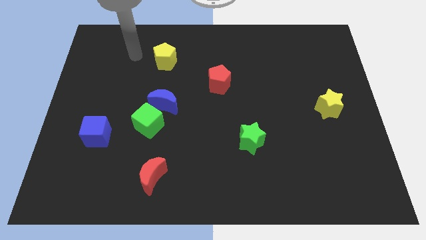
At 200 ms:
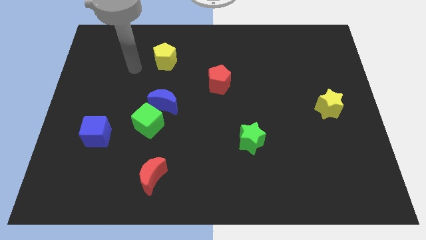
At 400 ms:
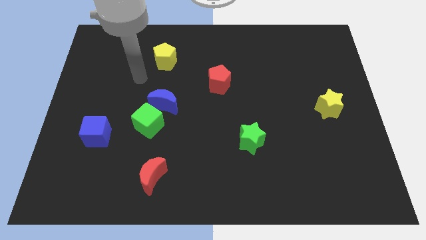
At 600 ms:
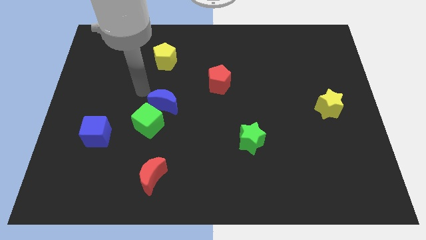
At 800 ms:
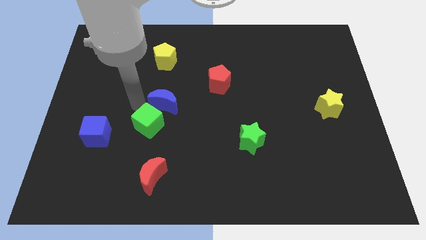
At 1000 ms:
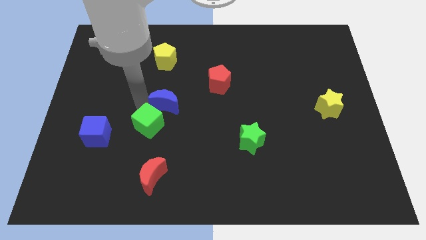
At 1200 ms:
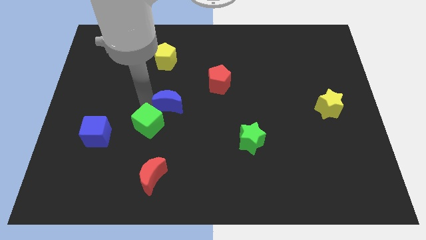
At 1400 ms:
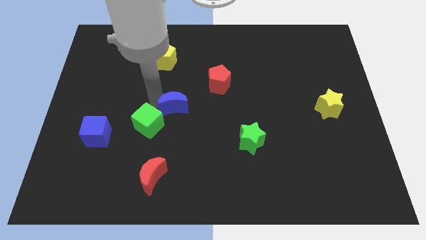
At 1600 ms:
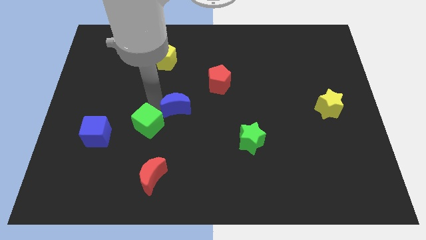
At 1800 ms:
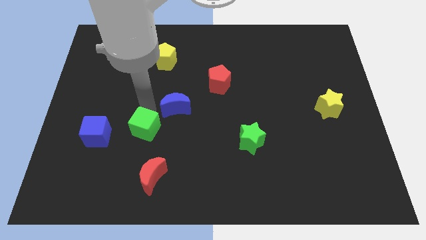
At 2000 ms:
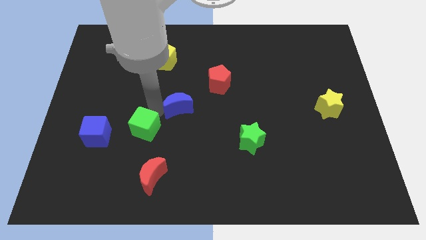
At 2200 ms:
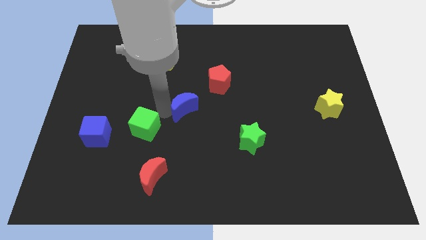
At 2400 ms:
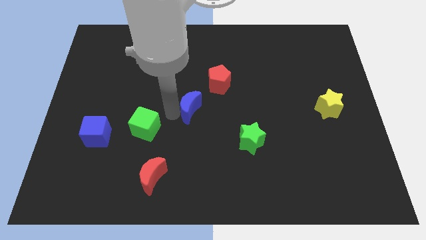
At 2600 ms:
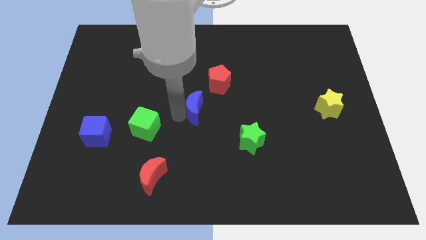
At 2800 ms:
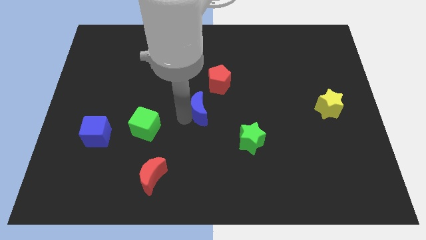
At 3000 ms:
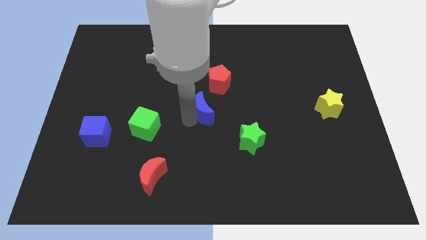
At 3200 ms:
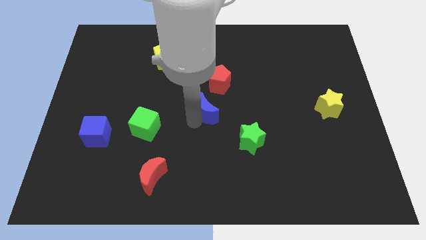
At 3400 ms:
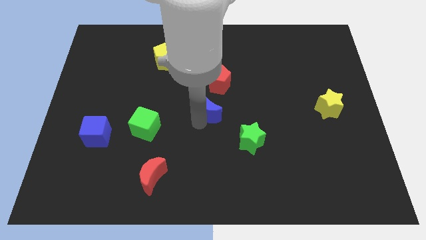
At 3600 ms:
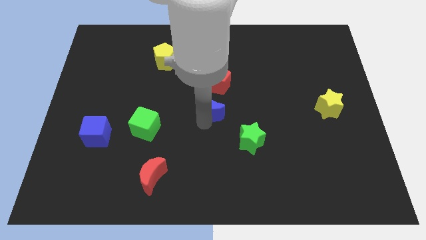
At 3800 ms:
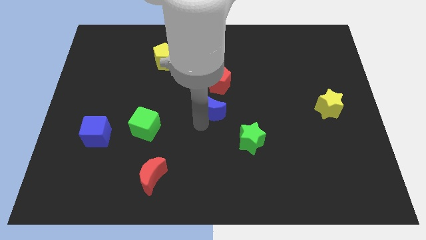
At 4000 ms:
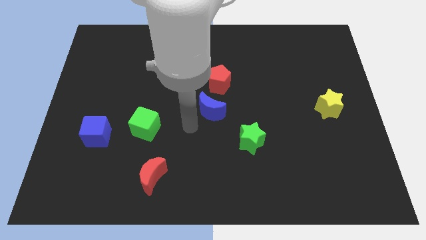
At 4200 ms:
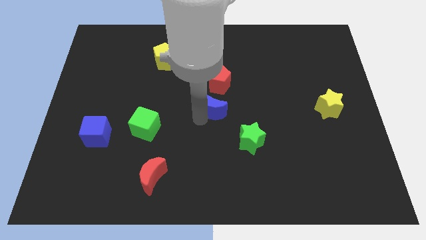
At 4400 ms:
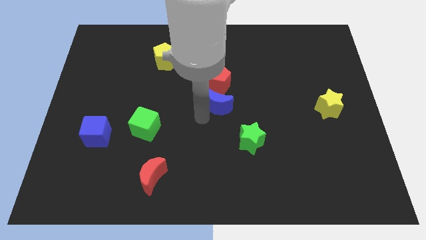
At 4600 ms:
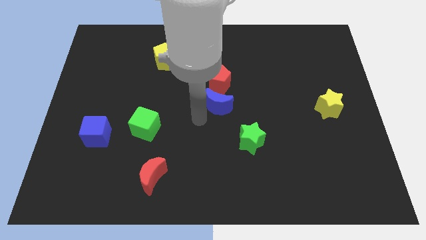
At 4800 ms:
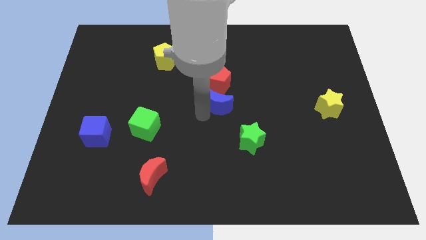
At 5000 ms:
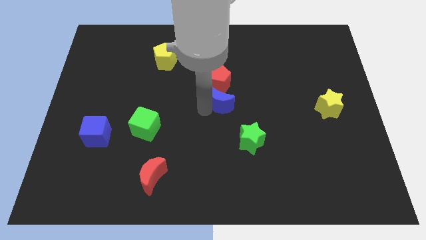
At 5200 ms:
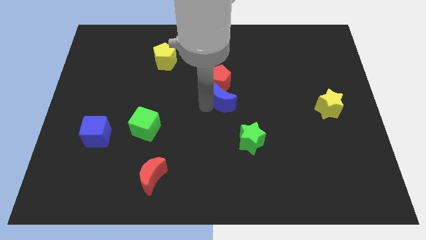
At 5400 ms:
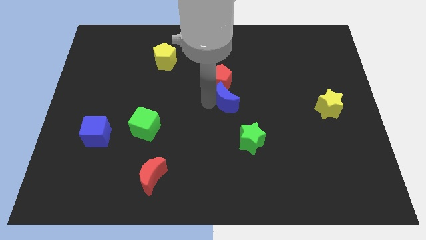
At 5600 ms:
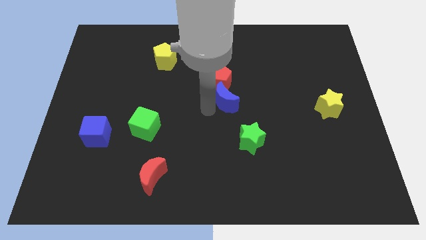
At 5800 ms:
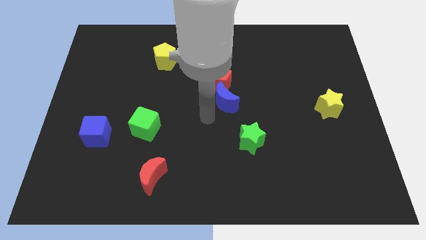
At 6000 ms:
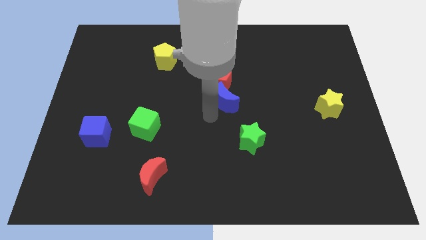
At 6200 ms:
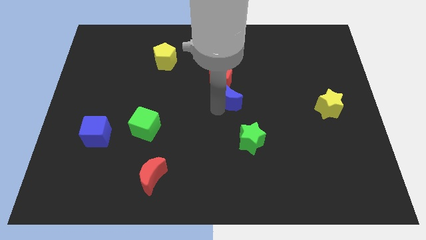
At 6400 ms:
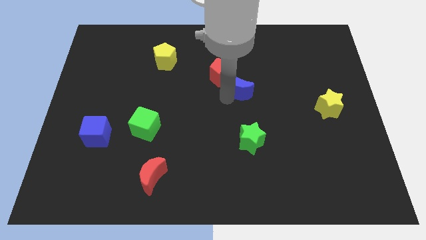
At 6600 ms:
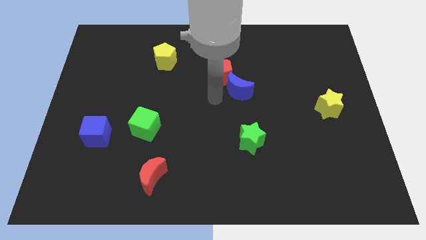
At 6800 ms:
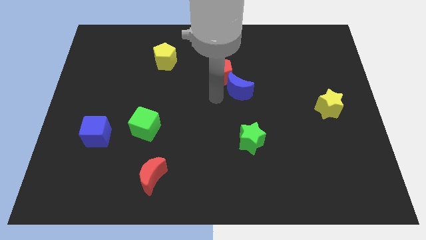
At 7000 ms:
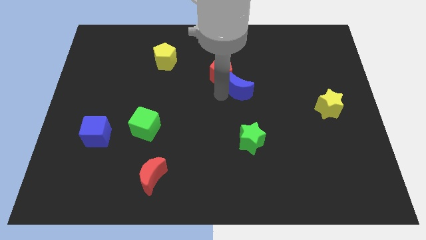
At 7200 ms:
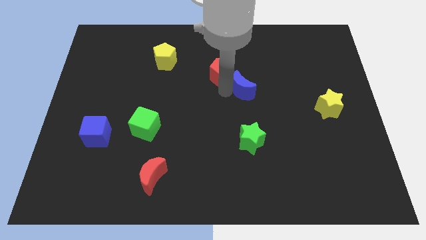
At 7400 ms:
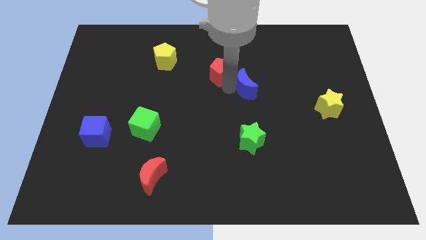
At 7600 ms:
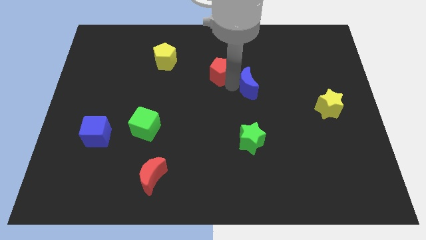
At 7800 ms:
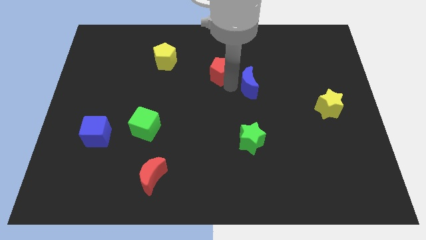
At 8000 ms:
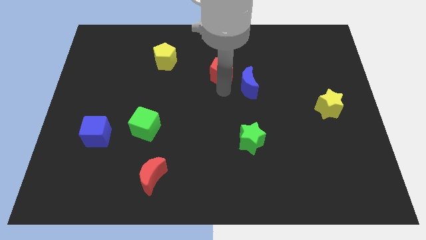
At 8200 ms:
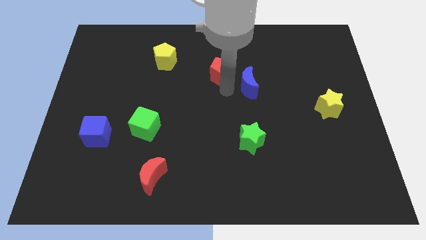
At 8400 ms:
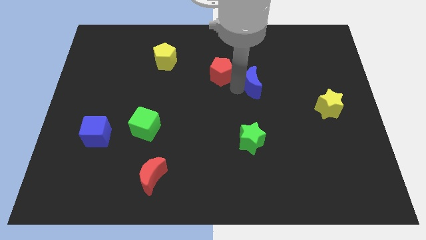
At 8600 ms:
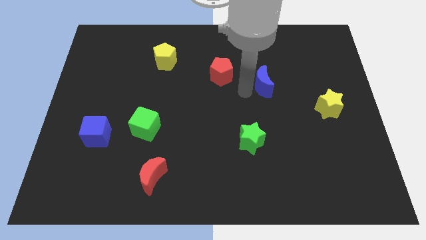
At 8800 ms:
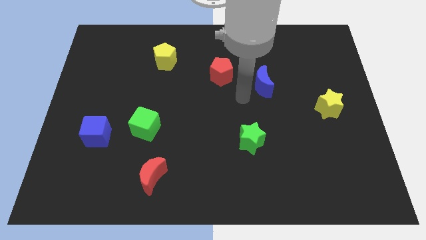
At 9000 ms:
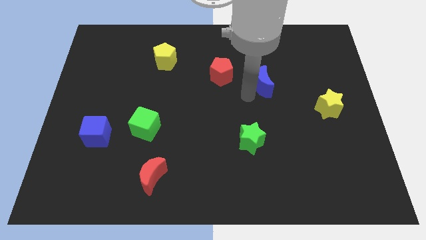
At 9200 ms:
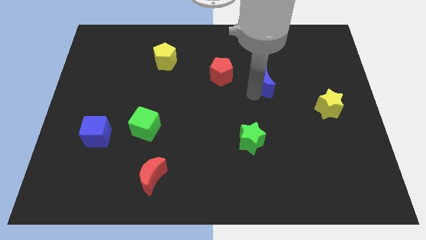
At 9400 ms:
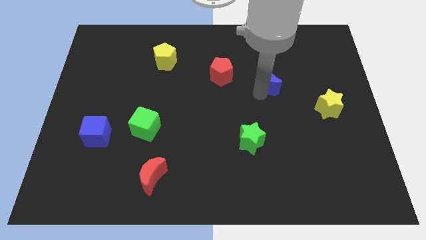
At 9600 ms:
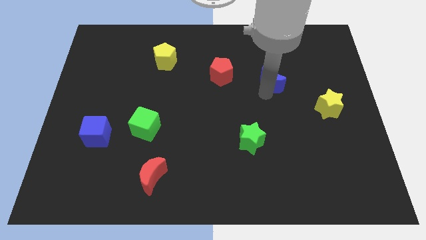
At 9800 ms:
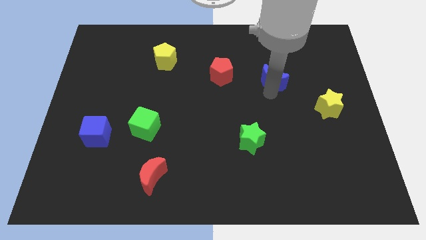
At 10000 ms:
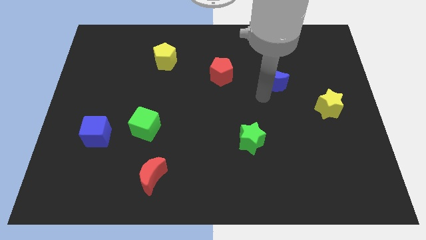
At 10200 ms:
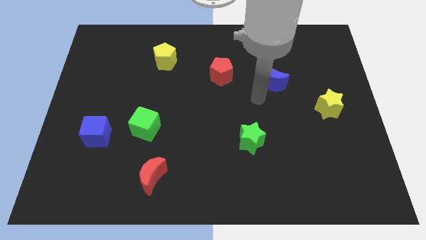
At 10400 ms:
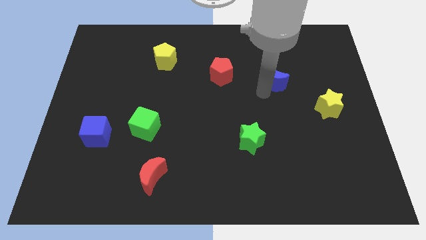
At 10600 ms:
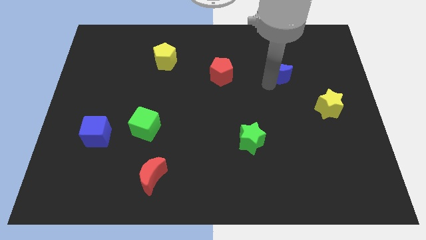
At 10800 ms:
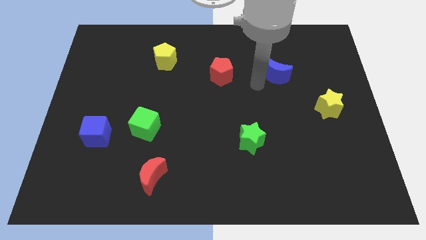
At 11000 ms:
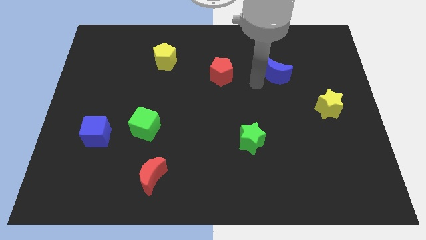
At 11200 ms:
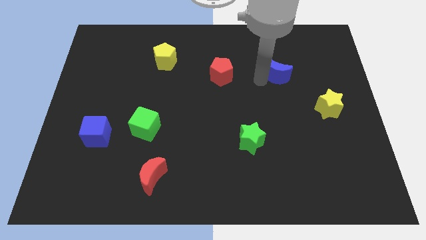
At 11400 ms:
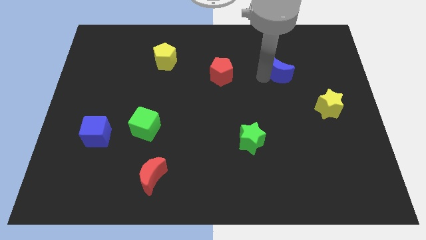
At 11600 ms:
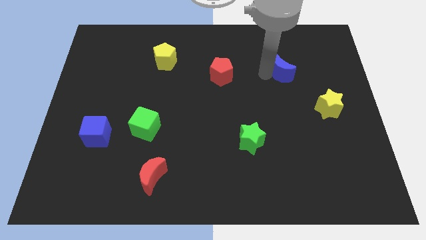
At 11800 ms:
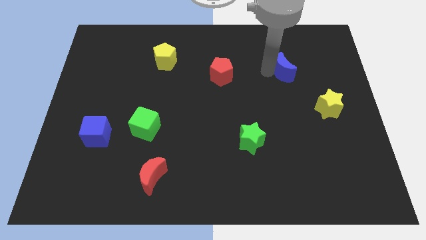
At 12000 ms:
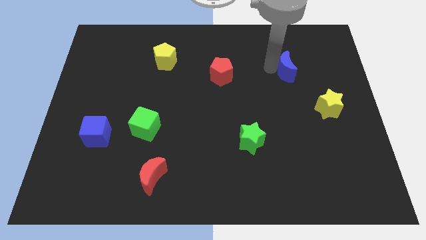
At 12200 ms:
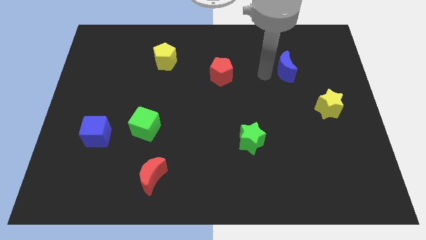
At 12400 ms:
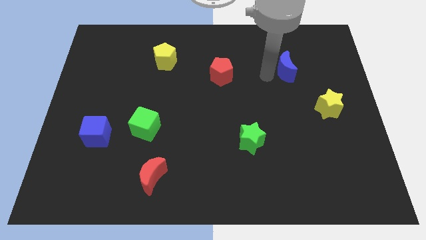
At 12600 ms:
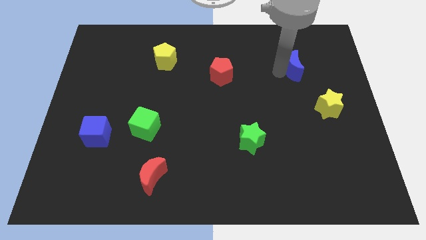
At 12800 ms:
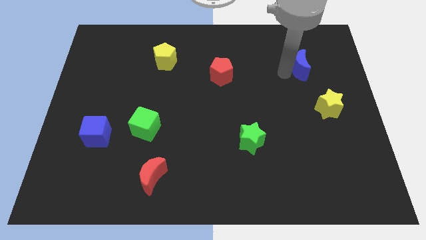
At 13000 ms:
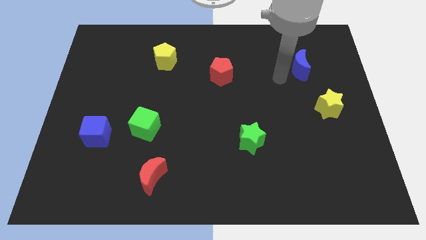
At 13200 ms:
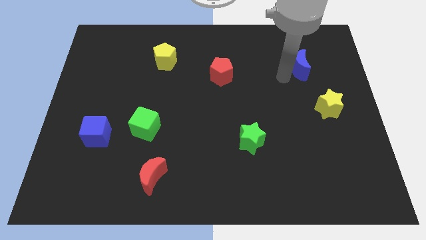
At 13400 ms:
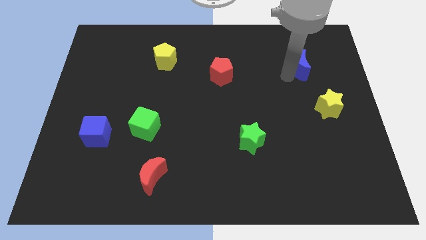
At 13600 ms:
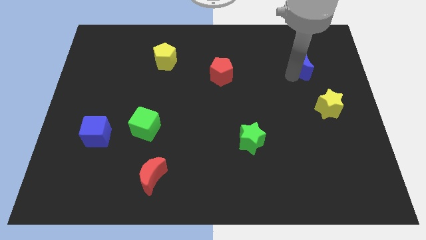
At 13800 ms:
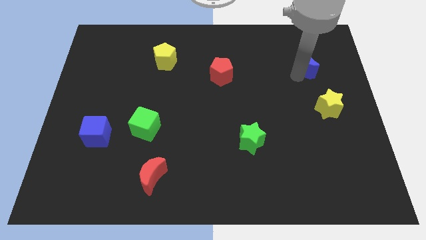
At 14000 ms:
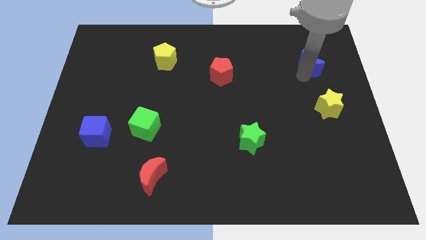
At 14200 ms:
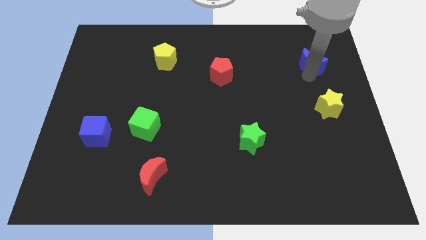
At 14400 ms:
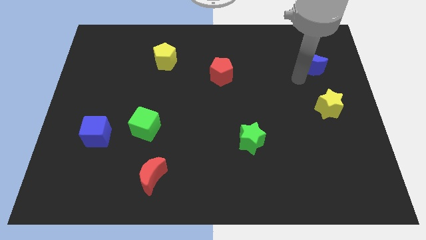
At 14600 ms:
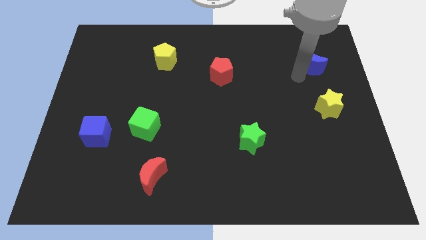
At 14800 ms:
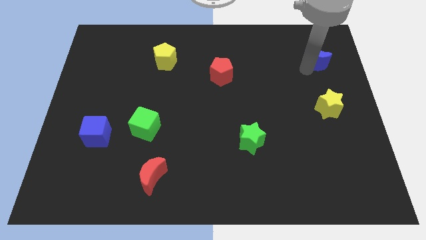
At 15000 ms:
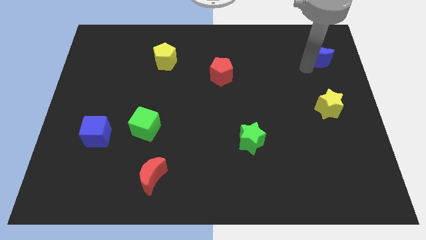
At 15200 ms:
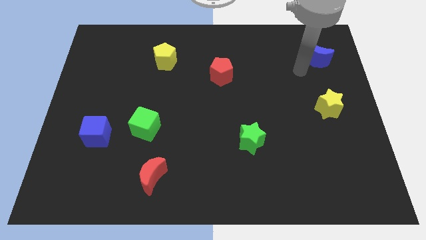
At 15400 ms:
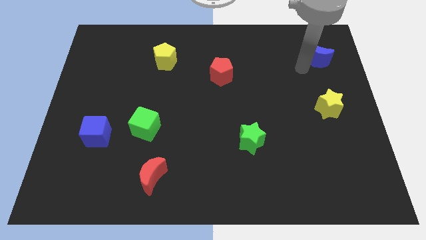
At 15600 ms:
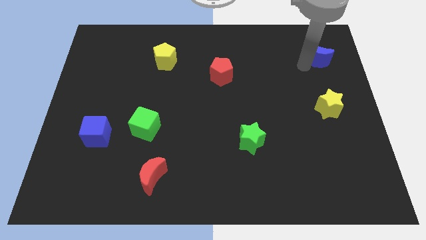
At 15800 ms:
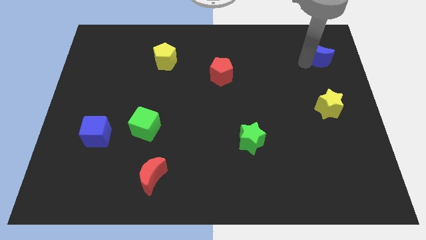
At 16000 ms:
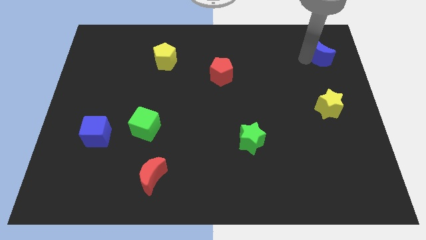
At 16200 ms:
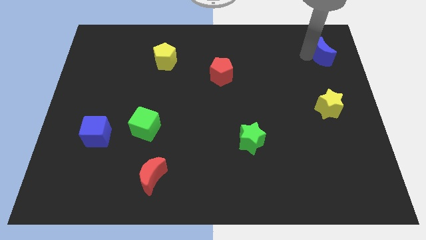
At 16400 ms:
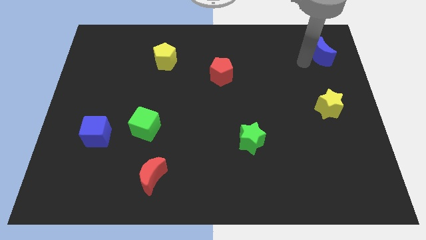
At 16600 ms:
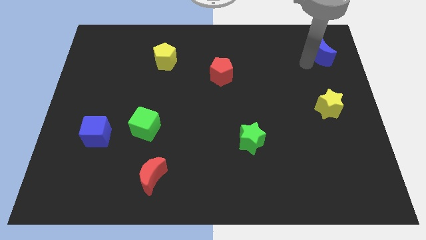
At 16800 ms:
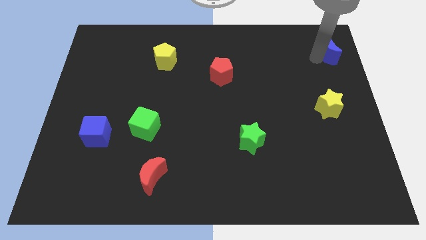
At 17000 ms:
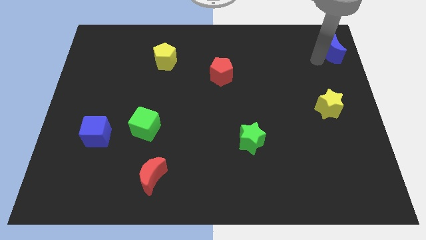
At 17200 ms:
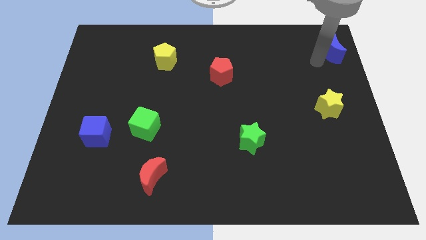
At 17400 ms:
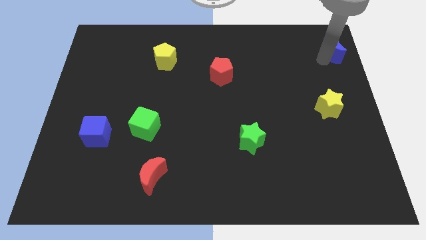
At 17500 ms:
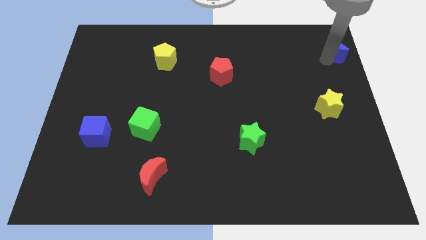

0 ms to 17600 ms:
slide the blue moon to the top right corner
